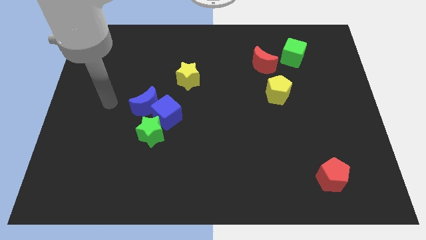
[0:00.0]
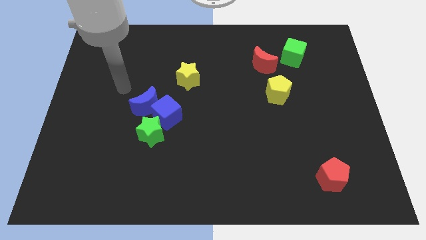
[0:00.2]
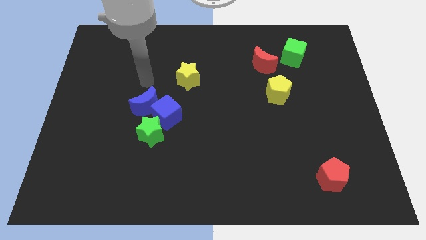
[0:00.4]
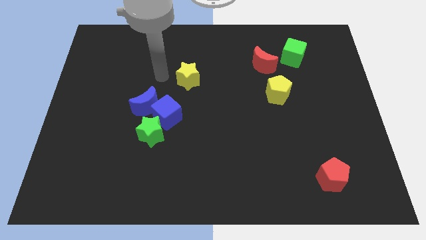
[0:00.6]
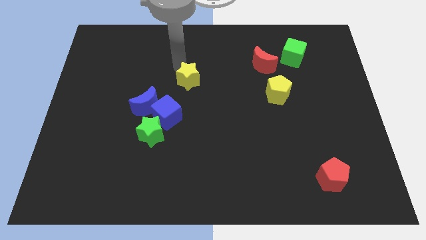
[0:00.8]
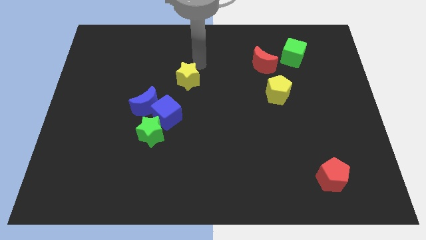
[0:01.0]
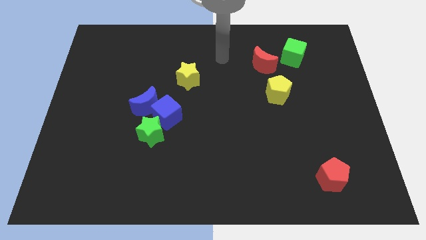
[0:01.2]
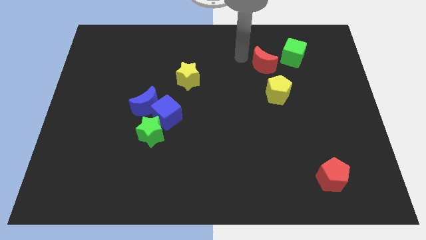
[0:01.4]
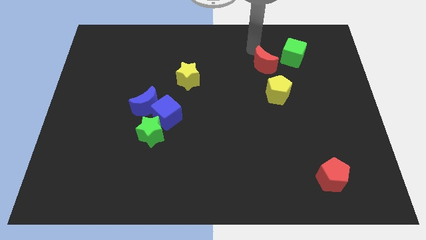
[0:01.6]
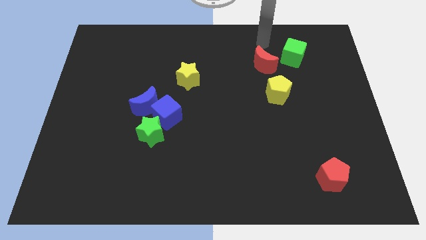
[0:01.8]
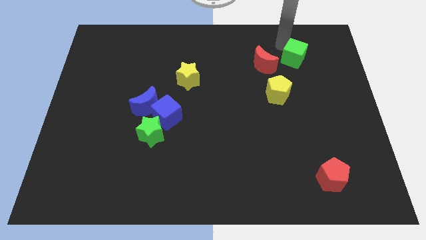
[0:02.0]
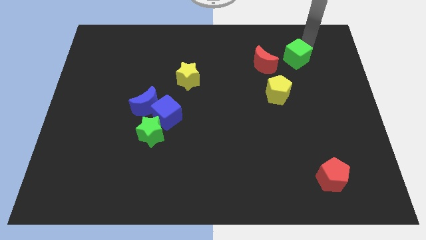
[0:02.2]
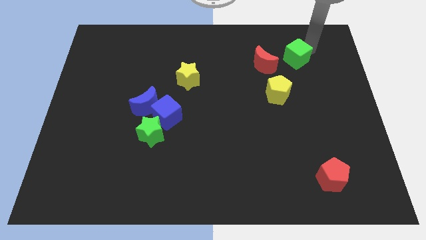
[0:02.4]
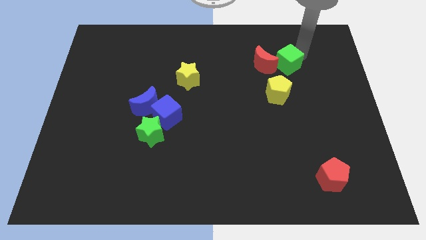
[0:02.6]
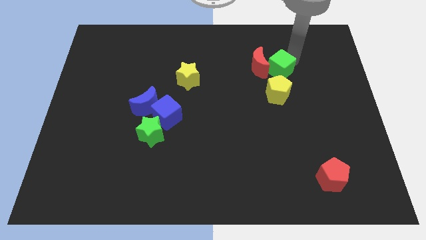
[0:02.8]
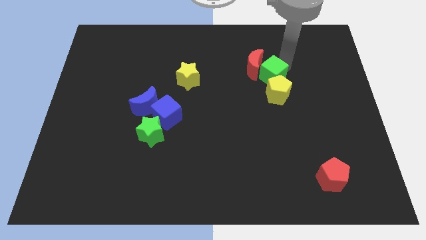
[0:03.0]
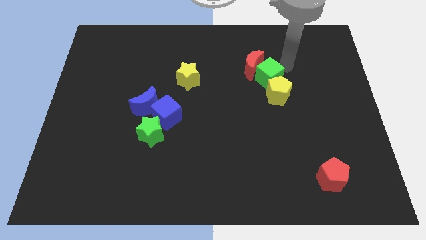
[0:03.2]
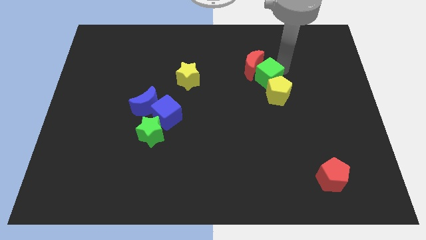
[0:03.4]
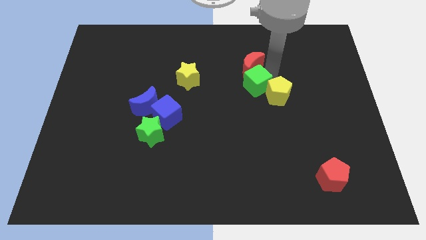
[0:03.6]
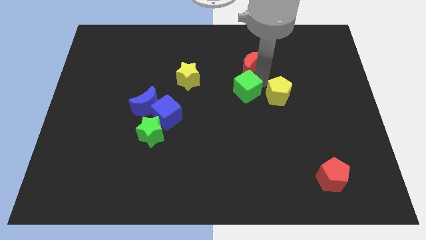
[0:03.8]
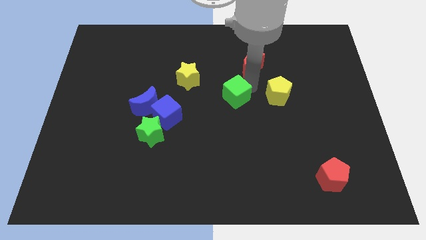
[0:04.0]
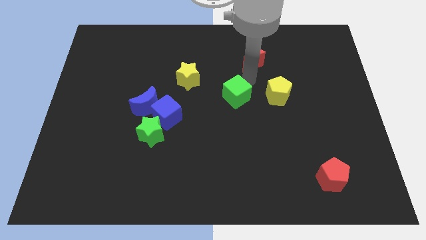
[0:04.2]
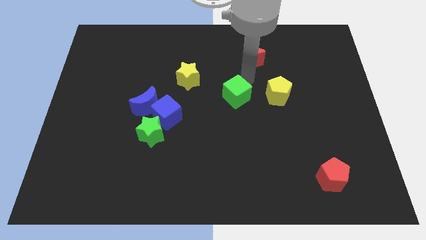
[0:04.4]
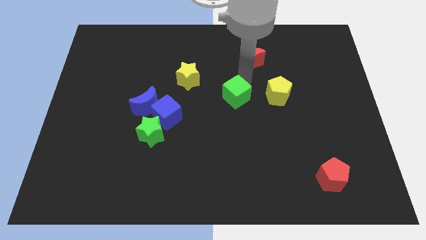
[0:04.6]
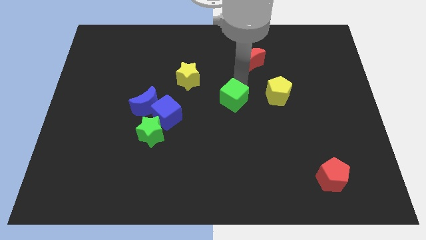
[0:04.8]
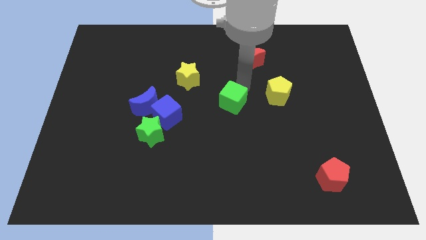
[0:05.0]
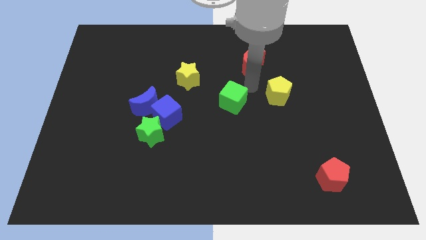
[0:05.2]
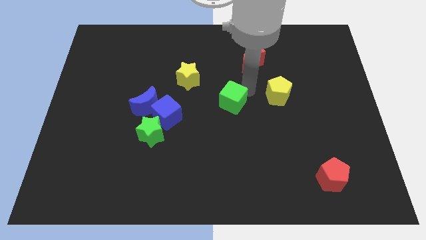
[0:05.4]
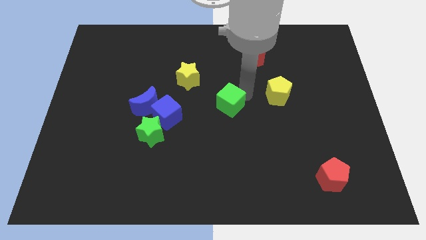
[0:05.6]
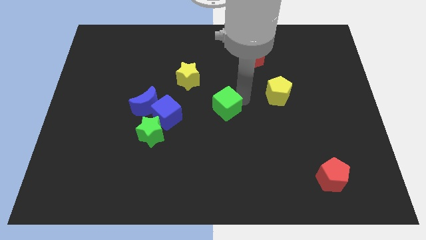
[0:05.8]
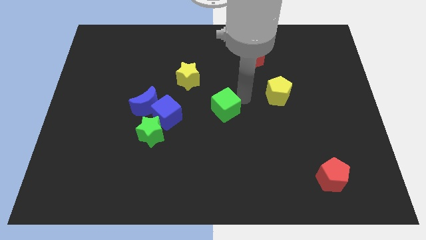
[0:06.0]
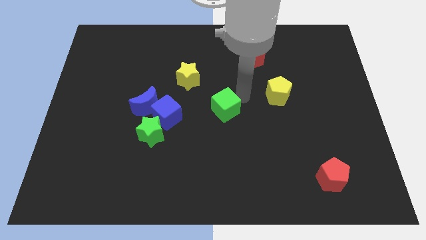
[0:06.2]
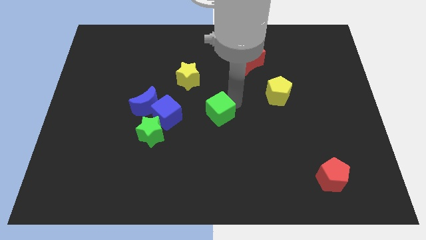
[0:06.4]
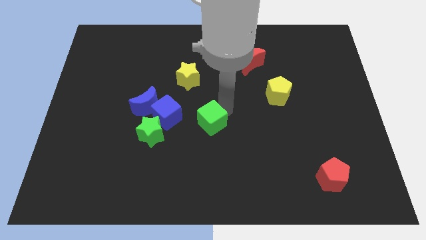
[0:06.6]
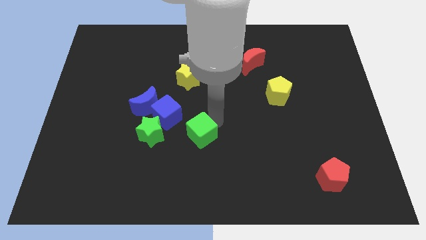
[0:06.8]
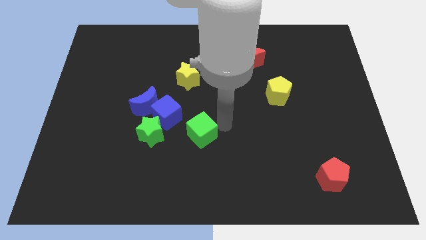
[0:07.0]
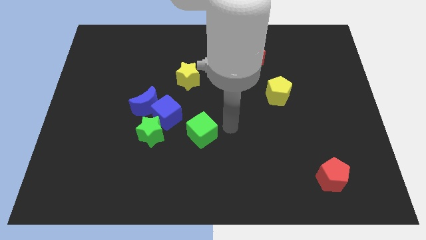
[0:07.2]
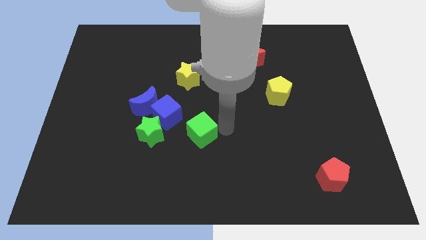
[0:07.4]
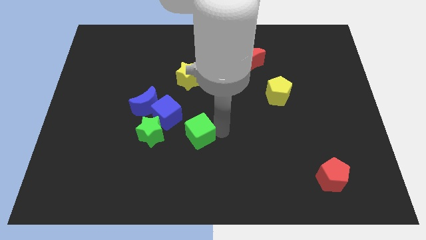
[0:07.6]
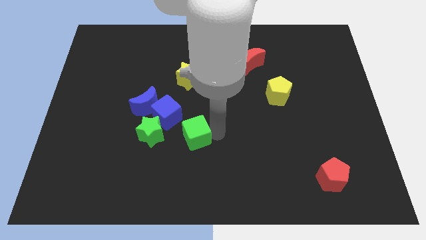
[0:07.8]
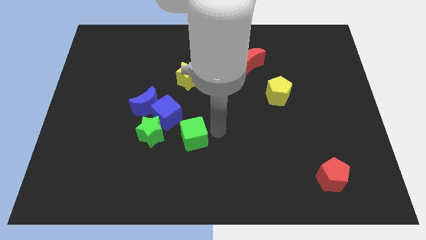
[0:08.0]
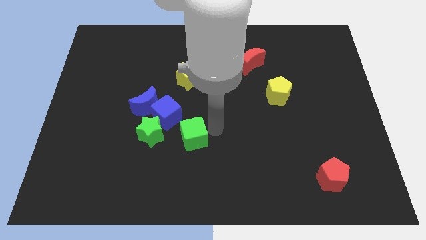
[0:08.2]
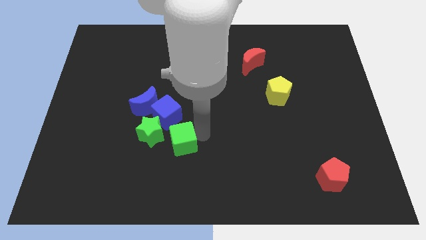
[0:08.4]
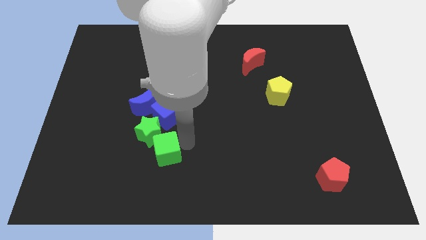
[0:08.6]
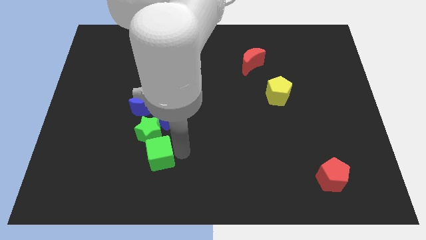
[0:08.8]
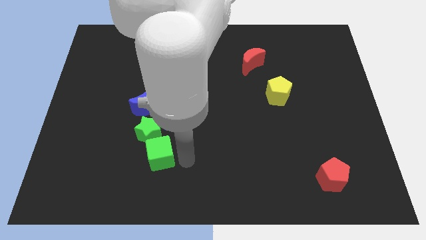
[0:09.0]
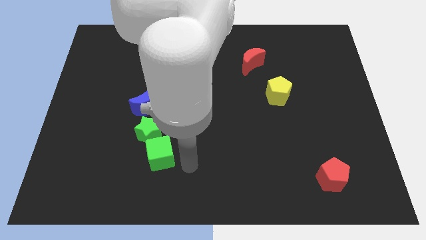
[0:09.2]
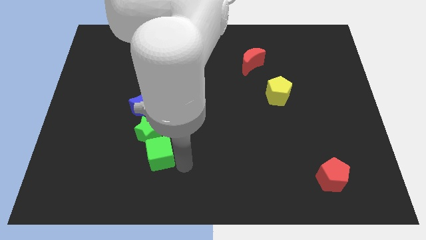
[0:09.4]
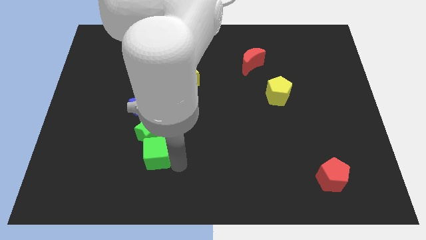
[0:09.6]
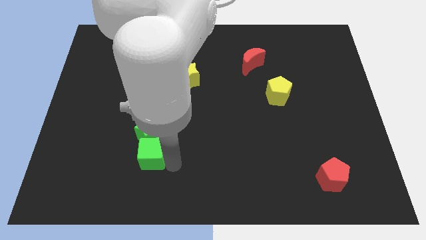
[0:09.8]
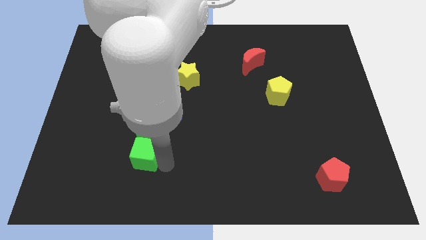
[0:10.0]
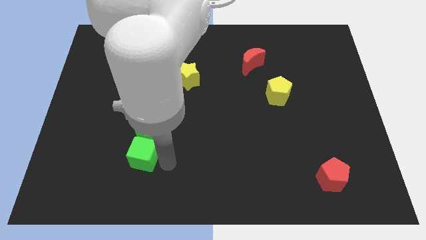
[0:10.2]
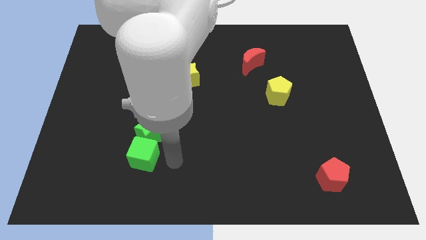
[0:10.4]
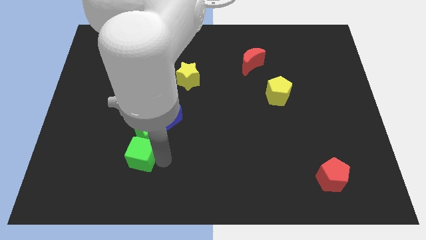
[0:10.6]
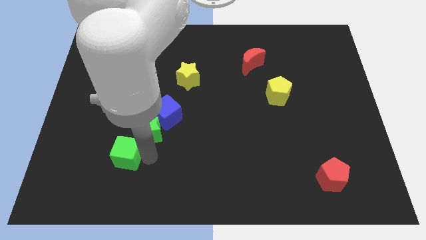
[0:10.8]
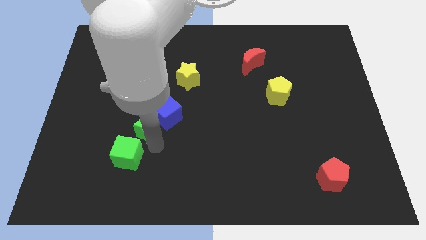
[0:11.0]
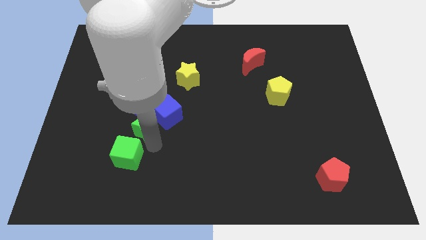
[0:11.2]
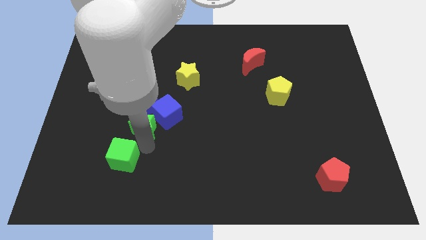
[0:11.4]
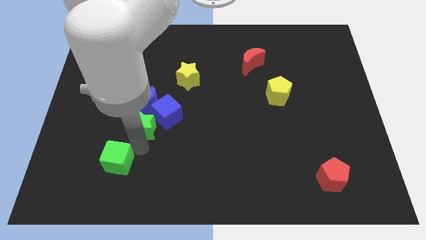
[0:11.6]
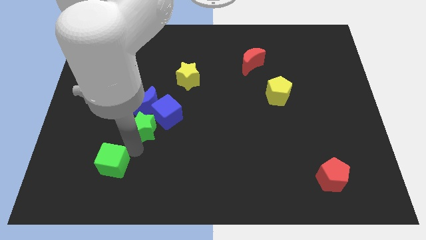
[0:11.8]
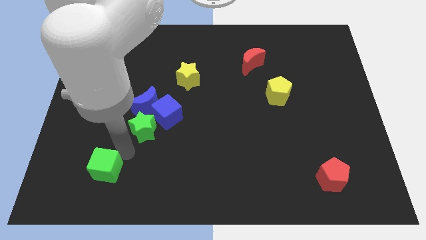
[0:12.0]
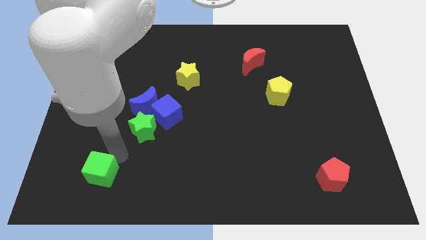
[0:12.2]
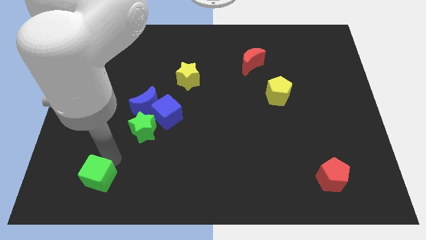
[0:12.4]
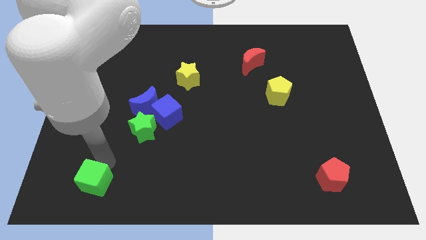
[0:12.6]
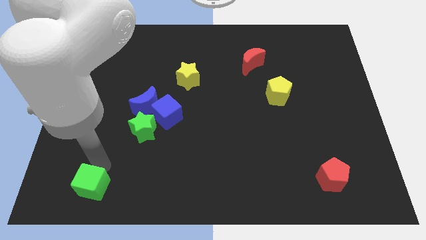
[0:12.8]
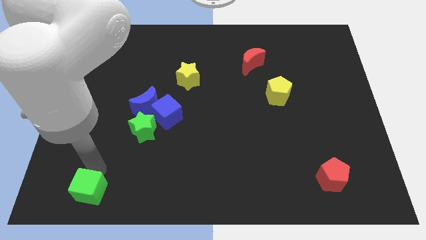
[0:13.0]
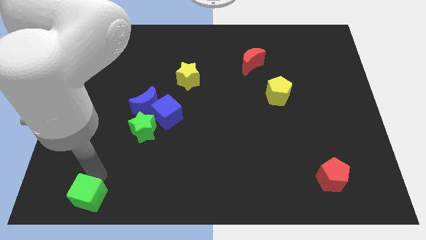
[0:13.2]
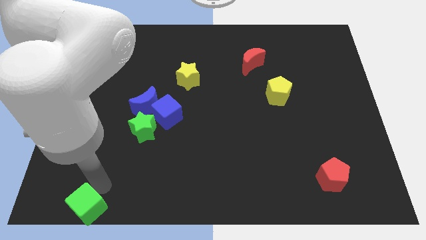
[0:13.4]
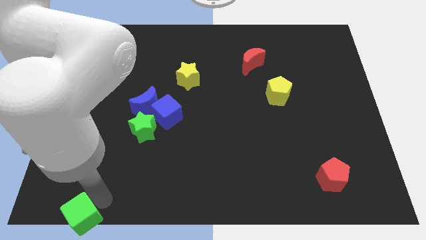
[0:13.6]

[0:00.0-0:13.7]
push the green cube to the bottom left
